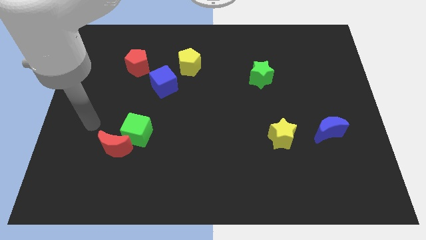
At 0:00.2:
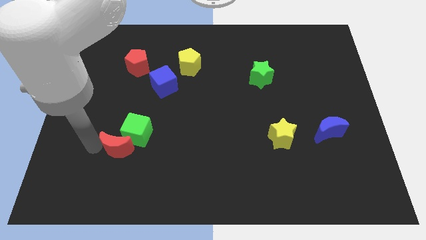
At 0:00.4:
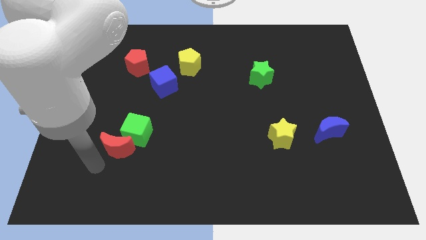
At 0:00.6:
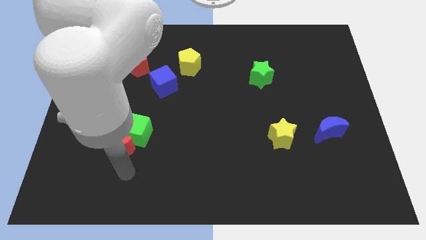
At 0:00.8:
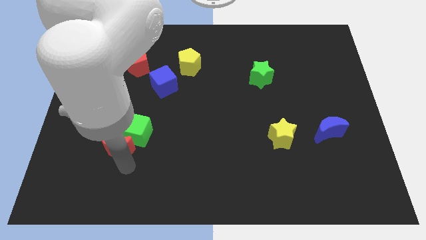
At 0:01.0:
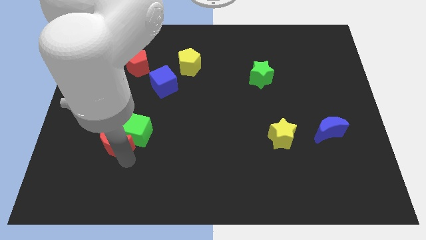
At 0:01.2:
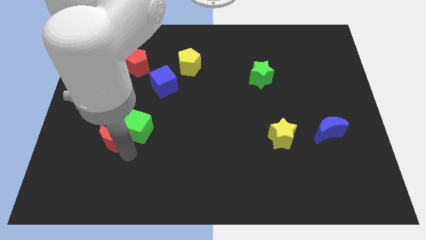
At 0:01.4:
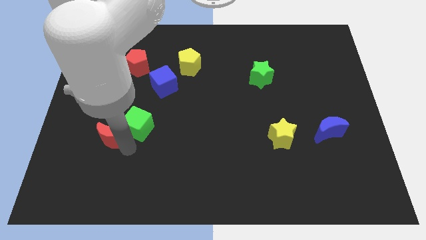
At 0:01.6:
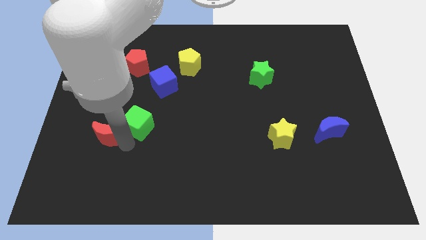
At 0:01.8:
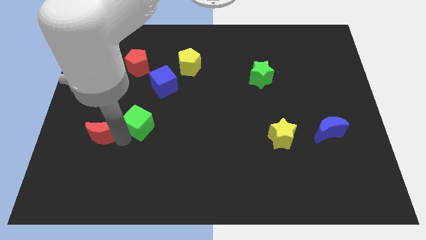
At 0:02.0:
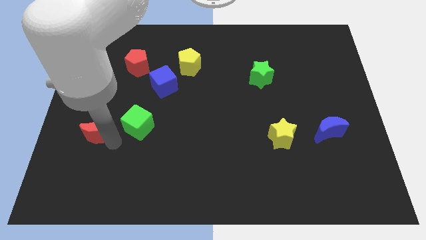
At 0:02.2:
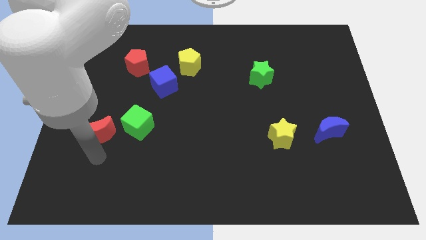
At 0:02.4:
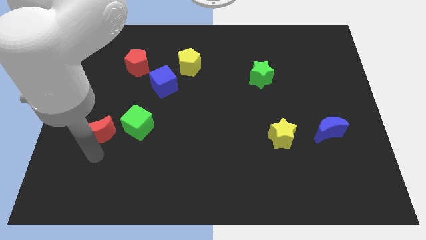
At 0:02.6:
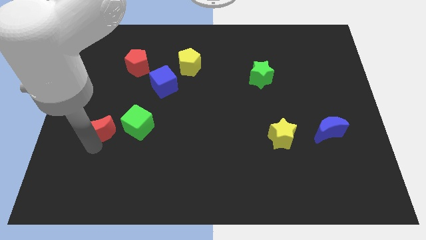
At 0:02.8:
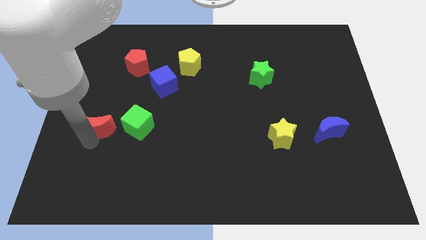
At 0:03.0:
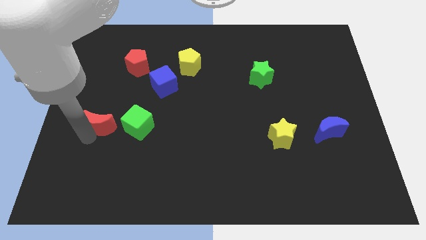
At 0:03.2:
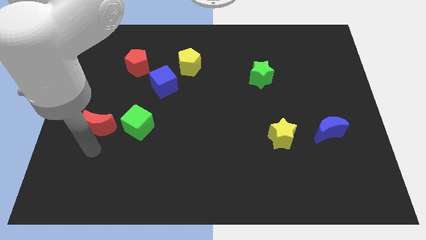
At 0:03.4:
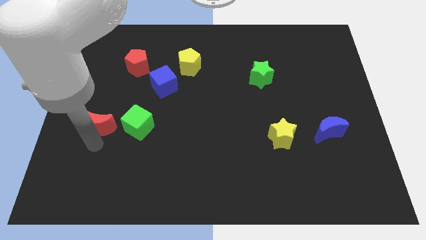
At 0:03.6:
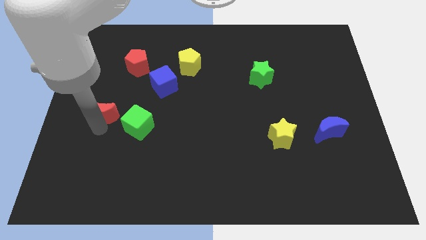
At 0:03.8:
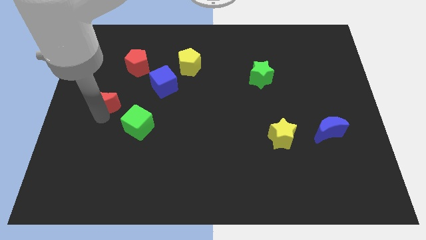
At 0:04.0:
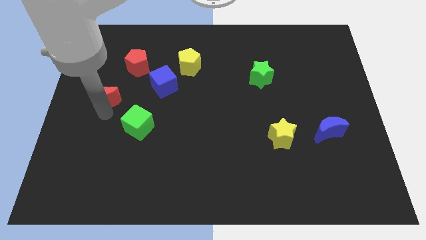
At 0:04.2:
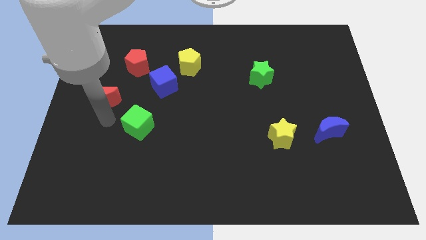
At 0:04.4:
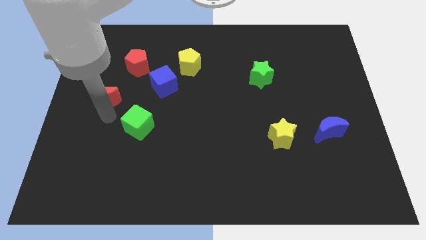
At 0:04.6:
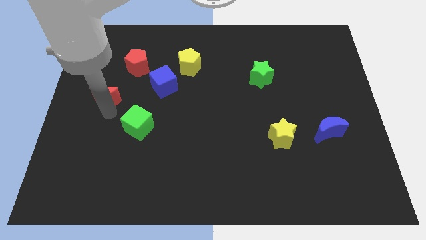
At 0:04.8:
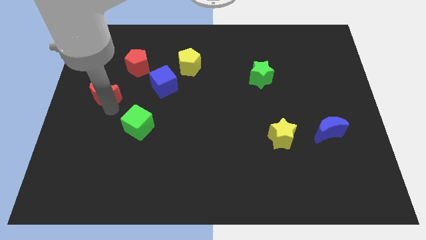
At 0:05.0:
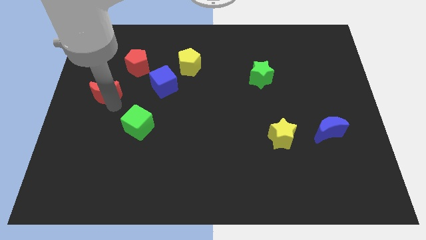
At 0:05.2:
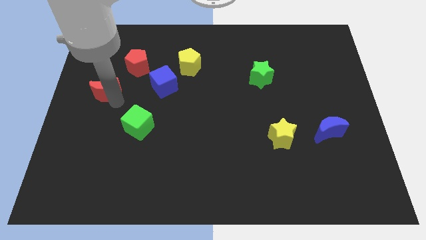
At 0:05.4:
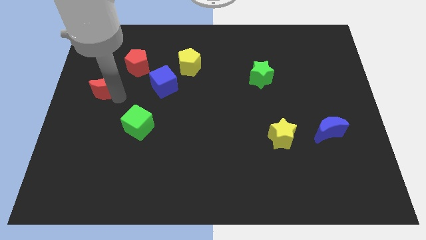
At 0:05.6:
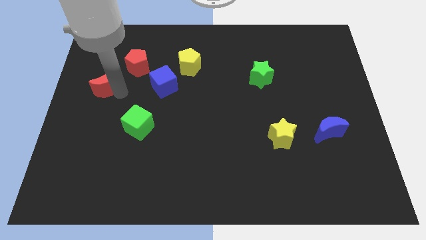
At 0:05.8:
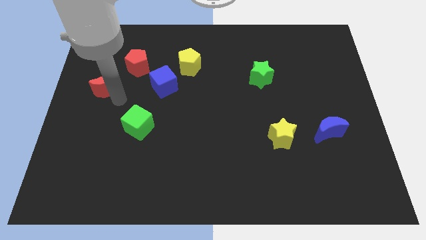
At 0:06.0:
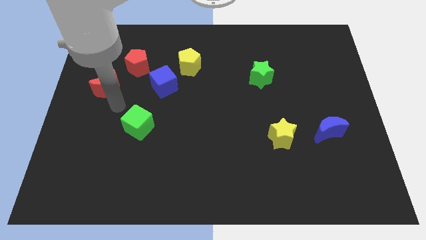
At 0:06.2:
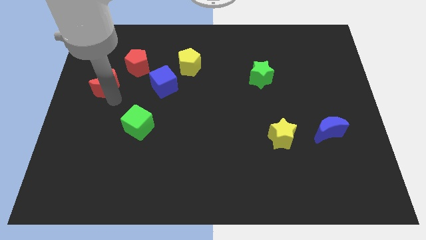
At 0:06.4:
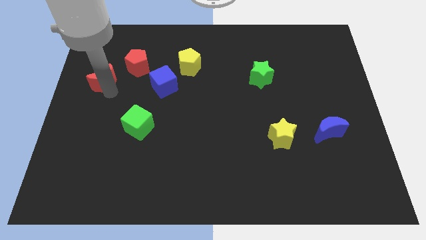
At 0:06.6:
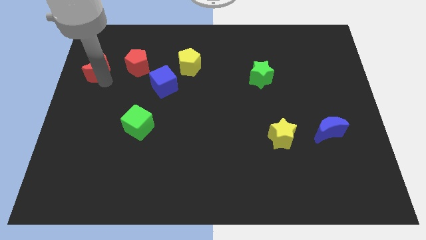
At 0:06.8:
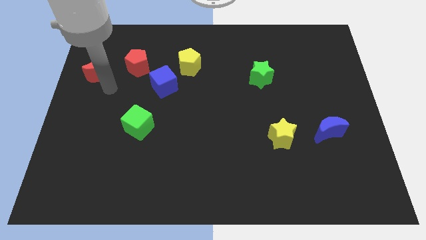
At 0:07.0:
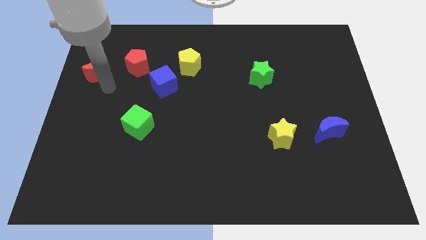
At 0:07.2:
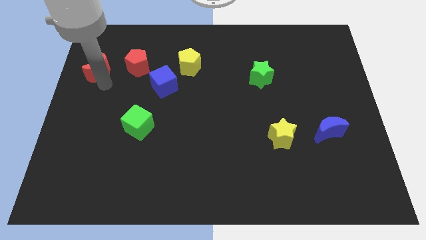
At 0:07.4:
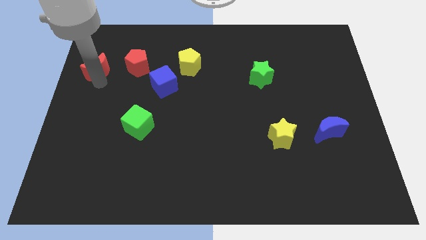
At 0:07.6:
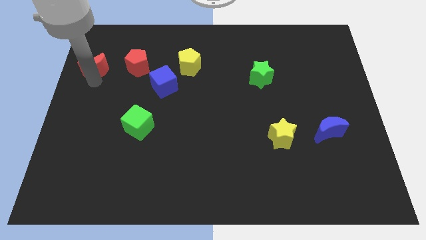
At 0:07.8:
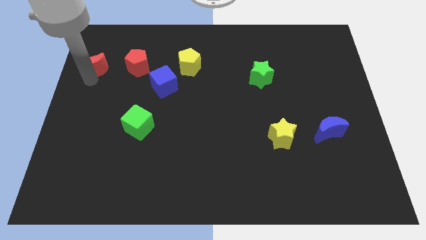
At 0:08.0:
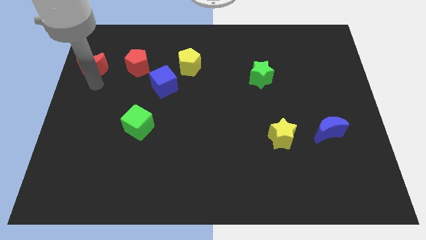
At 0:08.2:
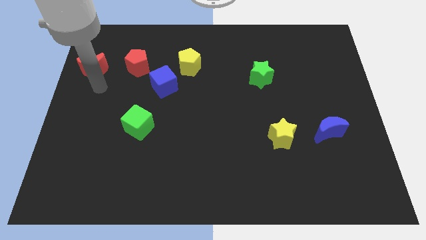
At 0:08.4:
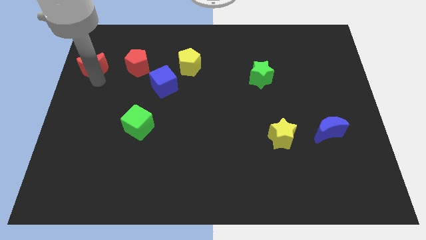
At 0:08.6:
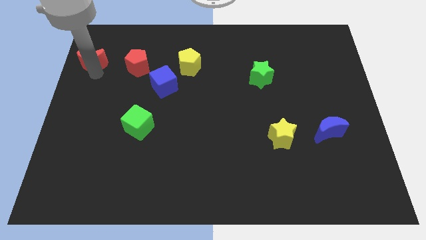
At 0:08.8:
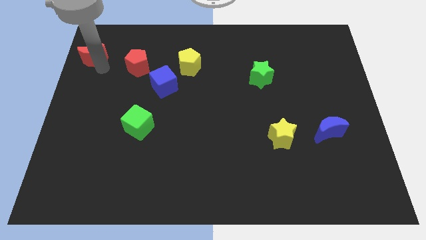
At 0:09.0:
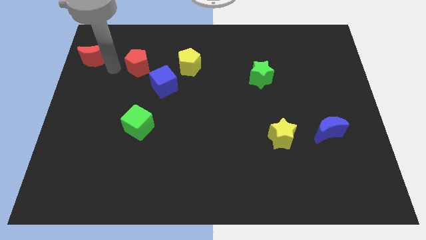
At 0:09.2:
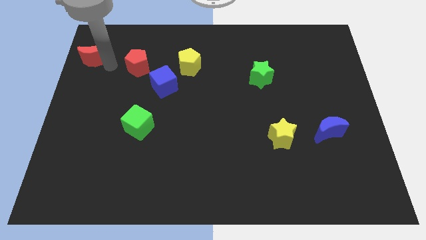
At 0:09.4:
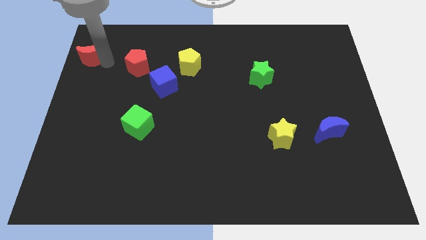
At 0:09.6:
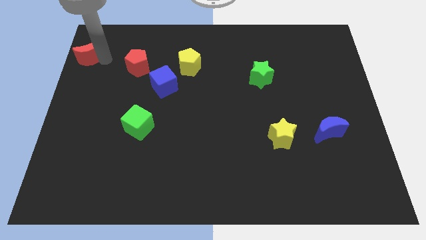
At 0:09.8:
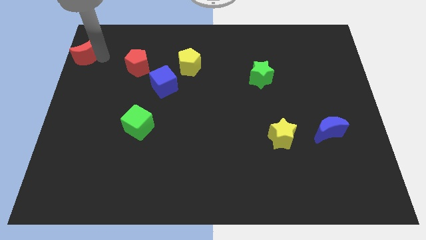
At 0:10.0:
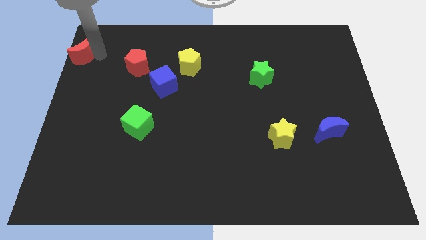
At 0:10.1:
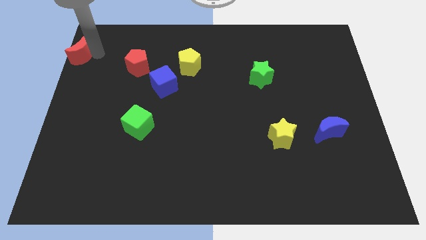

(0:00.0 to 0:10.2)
slide the red moon to the top left of the board

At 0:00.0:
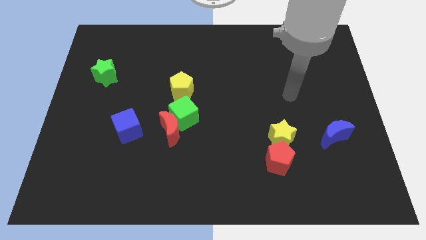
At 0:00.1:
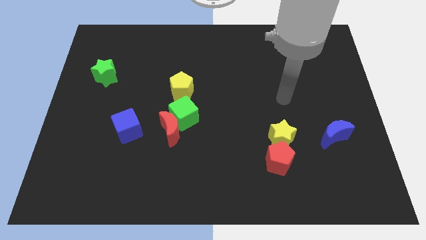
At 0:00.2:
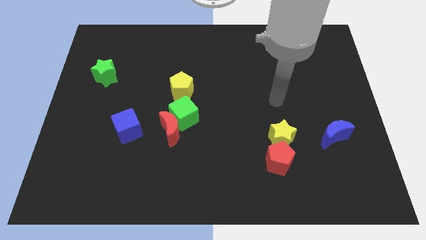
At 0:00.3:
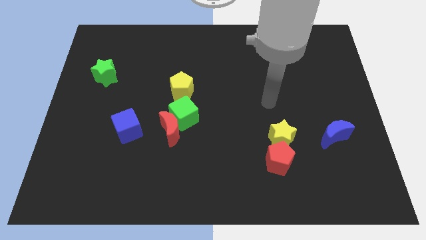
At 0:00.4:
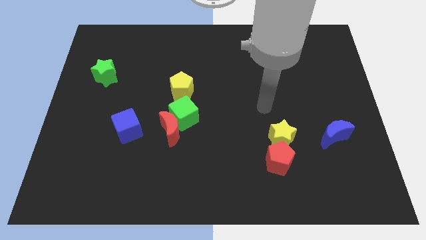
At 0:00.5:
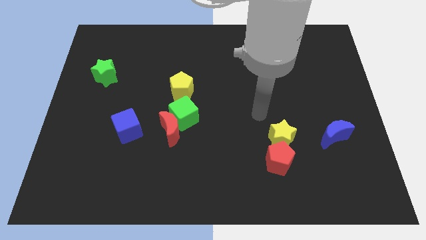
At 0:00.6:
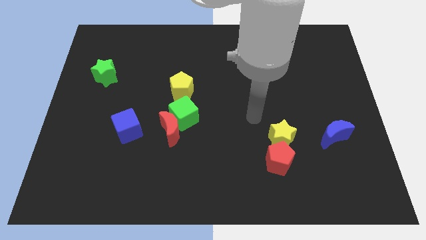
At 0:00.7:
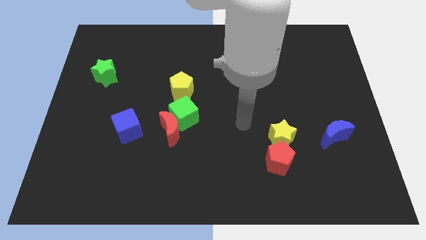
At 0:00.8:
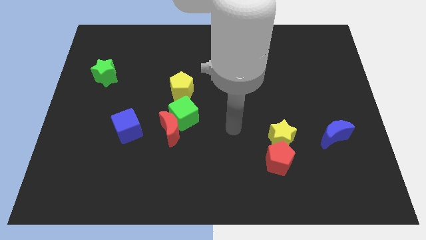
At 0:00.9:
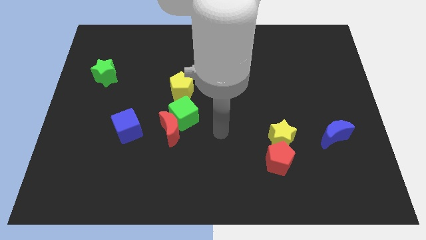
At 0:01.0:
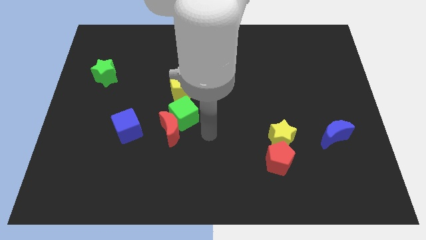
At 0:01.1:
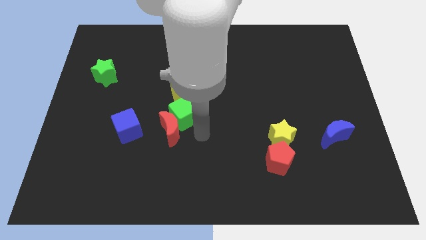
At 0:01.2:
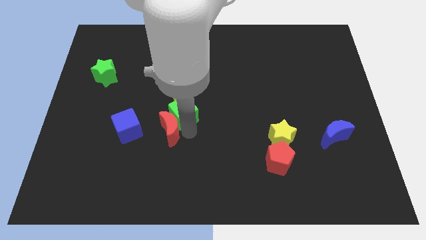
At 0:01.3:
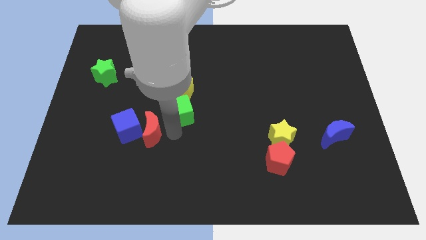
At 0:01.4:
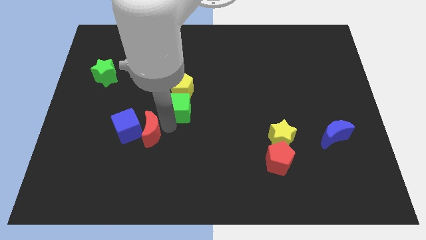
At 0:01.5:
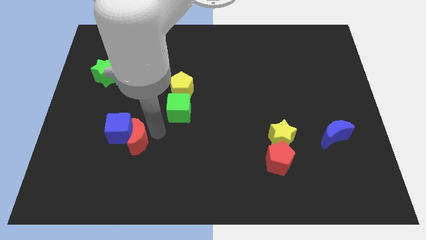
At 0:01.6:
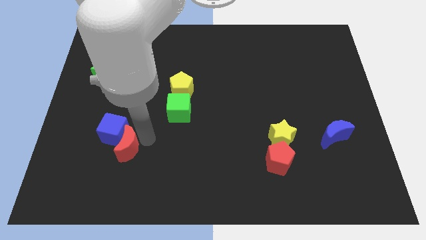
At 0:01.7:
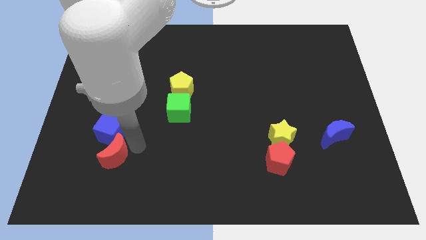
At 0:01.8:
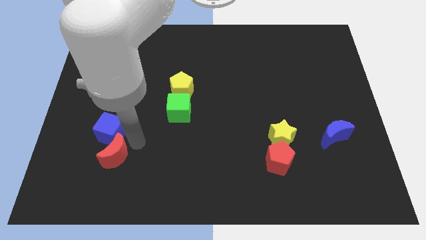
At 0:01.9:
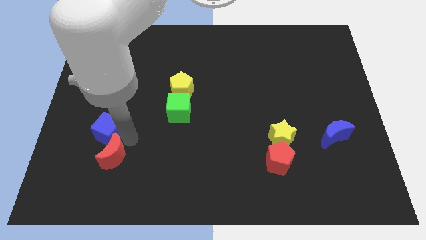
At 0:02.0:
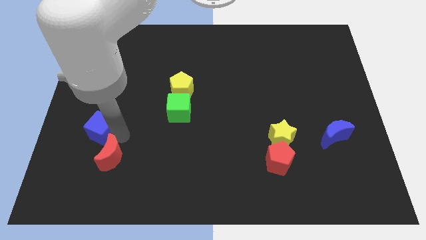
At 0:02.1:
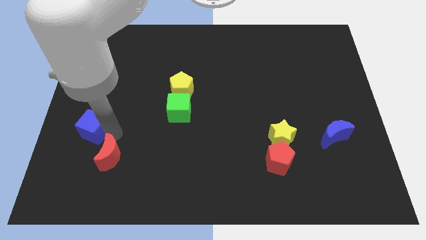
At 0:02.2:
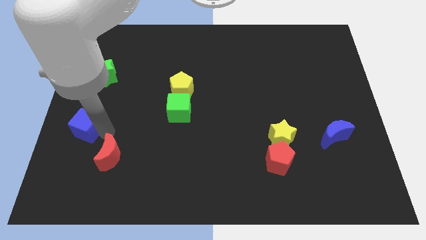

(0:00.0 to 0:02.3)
slide the blue cube to the left side of the board
